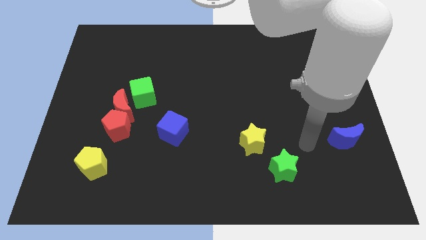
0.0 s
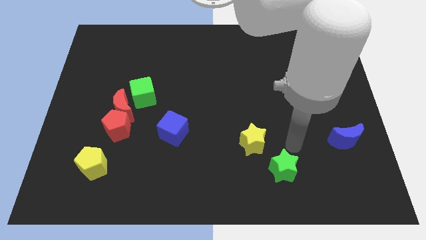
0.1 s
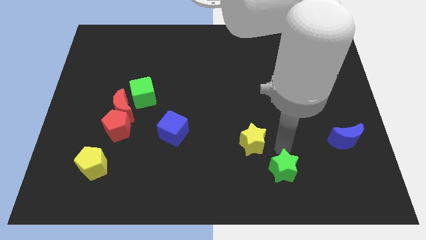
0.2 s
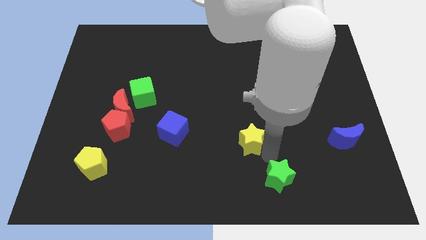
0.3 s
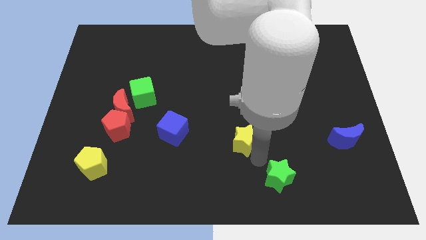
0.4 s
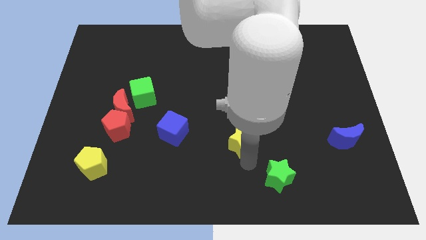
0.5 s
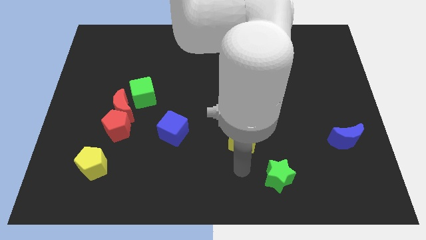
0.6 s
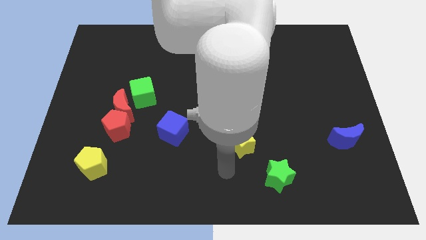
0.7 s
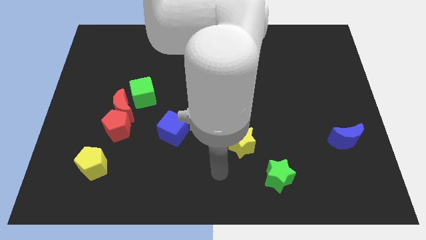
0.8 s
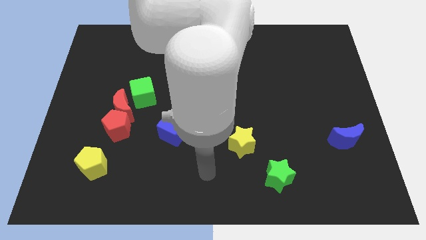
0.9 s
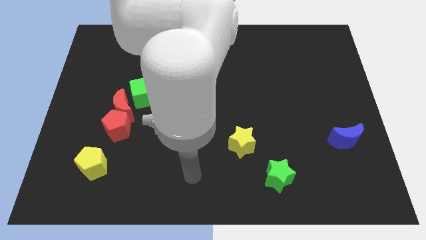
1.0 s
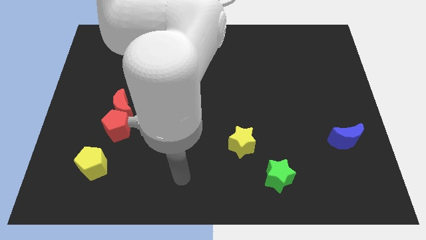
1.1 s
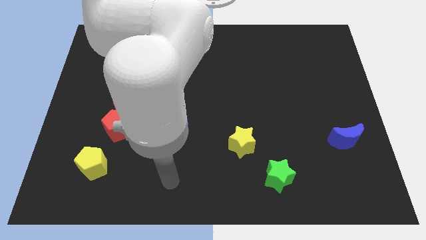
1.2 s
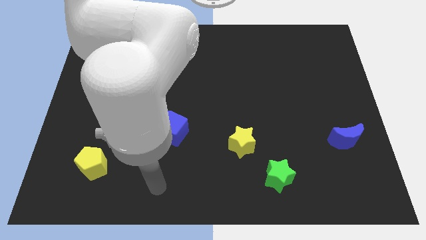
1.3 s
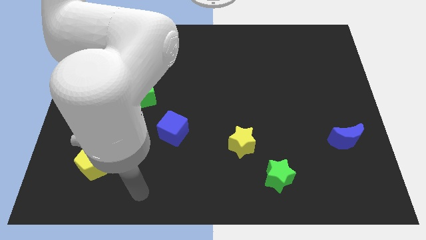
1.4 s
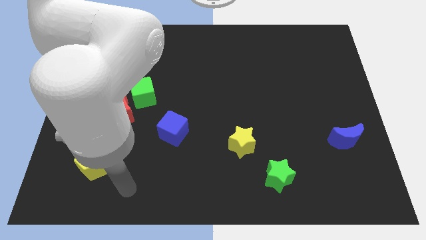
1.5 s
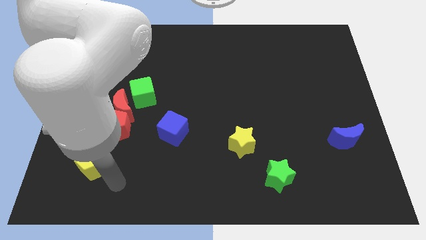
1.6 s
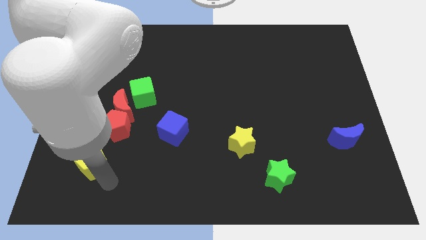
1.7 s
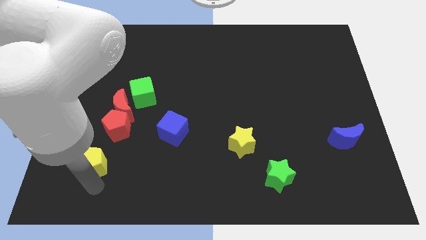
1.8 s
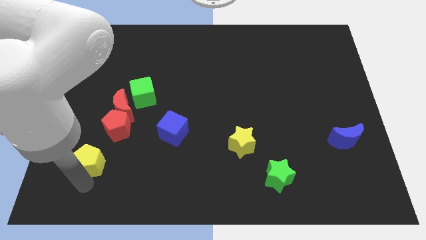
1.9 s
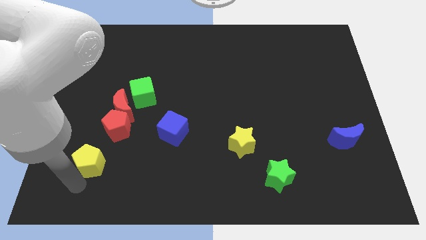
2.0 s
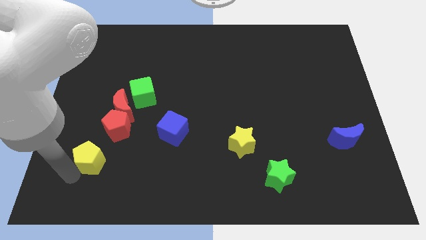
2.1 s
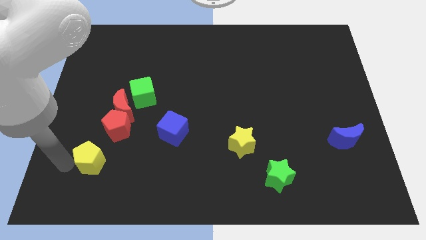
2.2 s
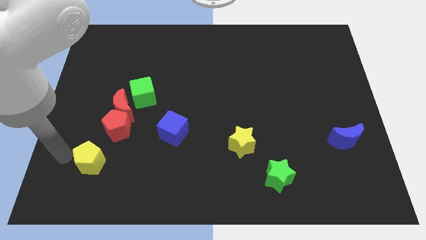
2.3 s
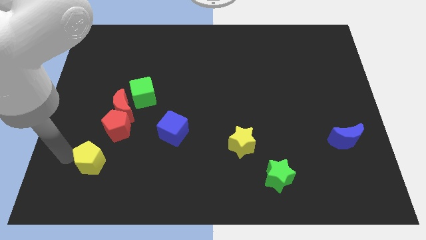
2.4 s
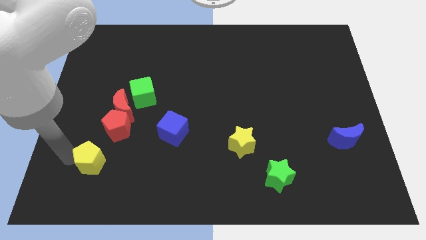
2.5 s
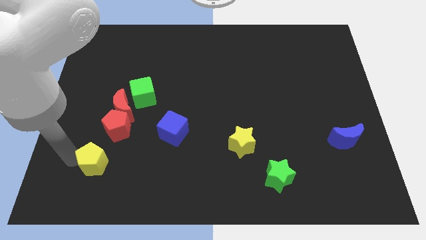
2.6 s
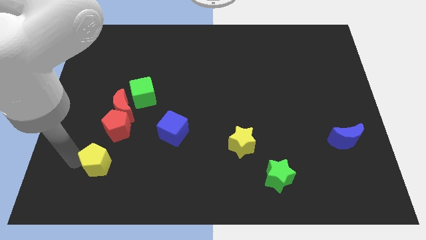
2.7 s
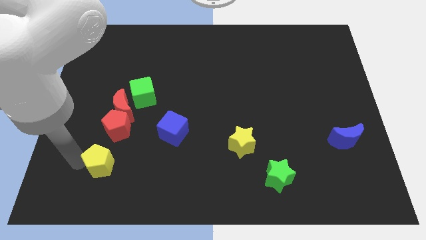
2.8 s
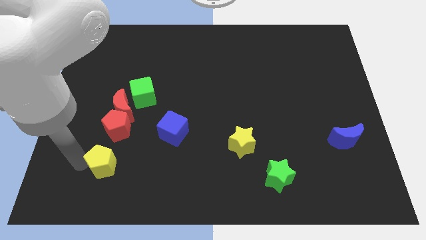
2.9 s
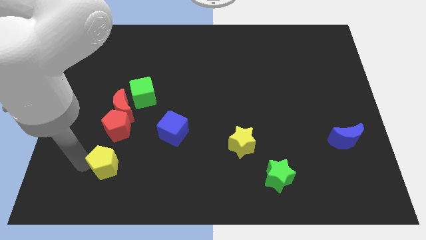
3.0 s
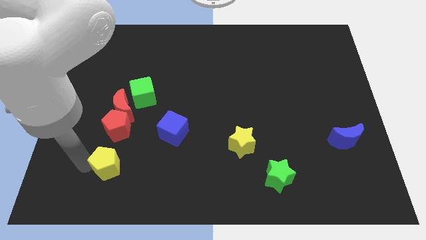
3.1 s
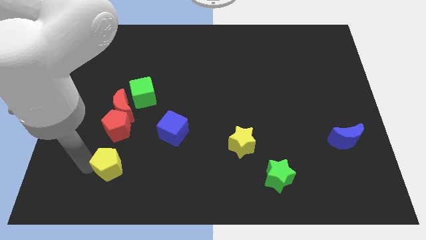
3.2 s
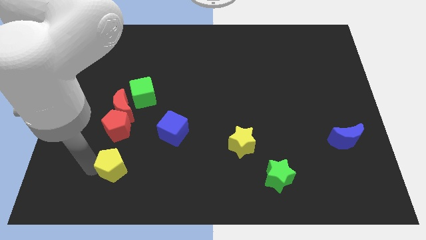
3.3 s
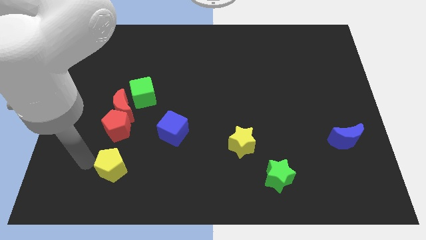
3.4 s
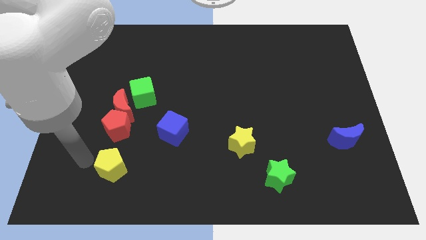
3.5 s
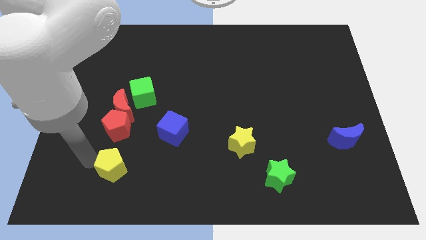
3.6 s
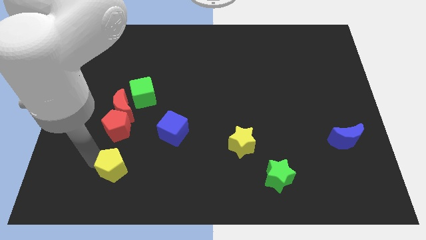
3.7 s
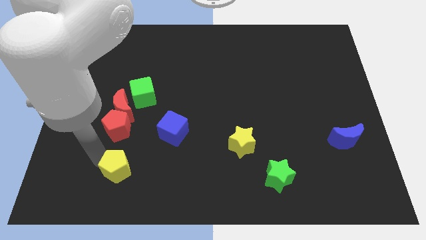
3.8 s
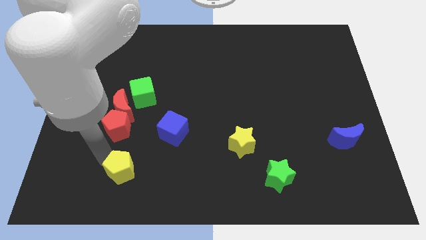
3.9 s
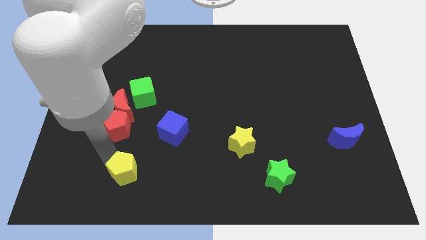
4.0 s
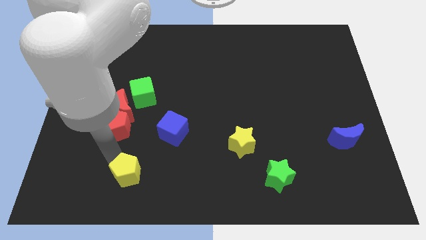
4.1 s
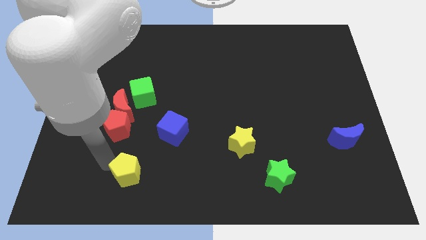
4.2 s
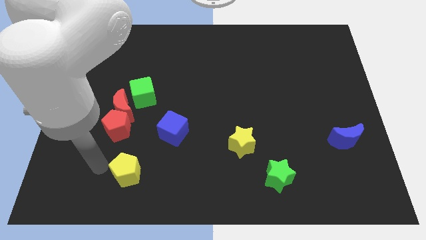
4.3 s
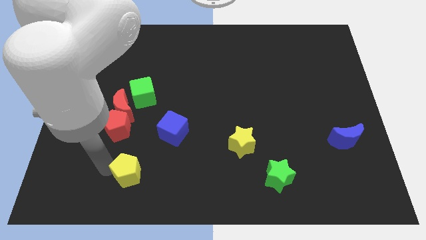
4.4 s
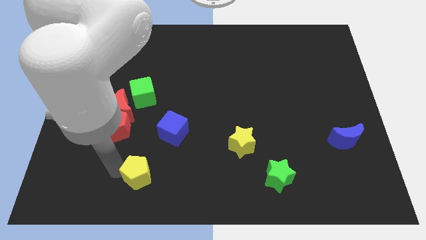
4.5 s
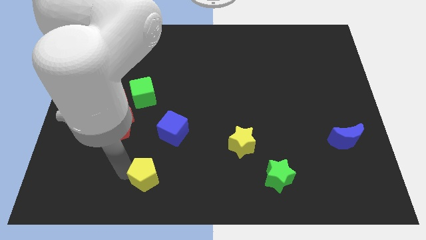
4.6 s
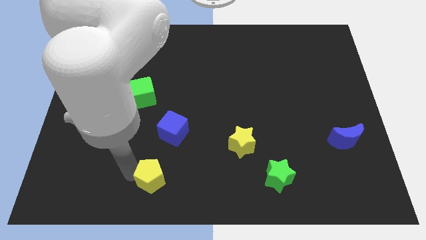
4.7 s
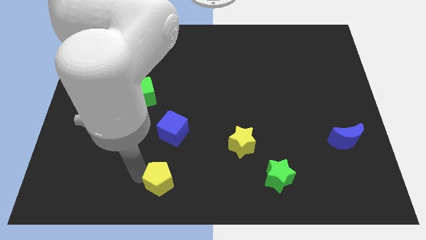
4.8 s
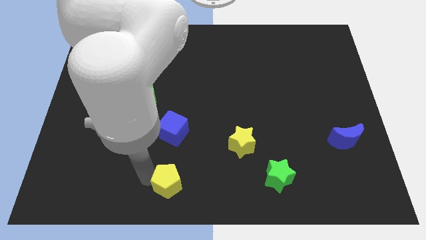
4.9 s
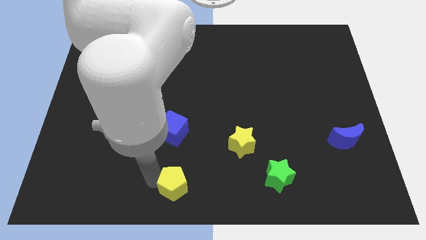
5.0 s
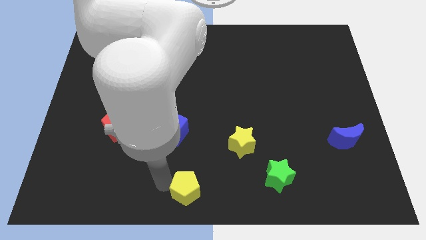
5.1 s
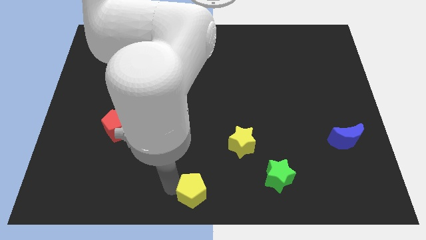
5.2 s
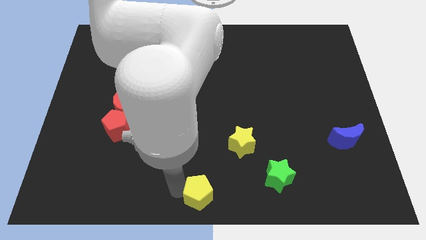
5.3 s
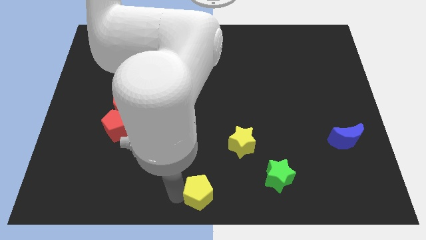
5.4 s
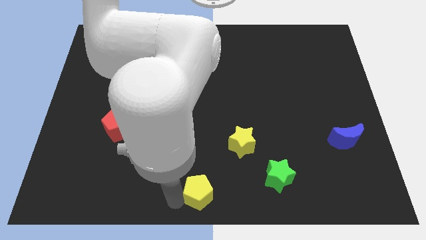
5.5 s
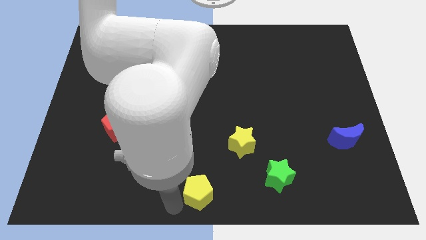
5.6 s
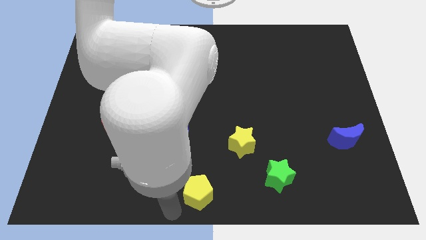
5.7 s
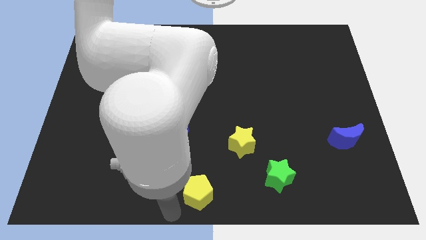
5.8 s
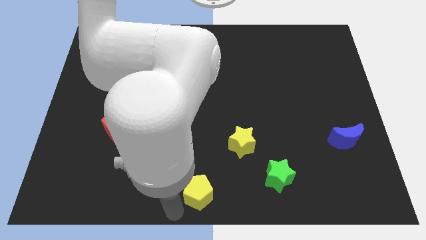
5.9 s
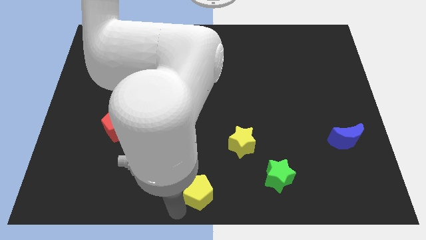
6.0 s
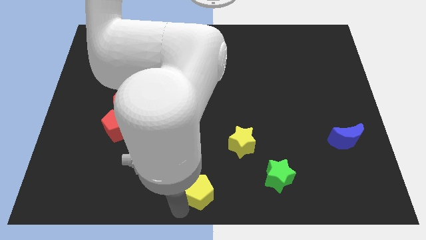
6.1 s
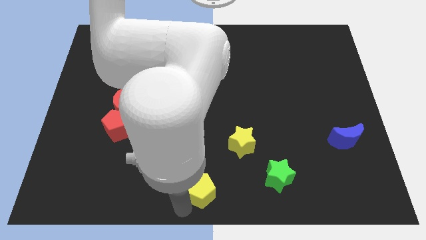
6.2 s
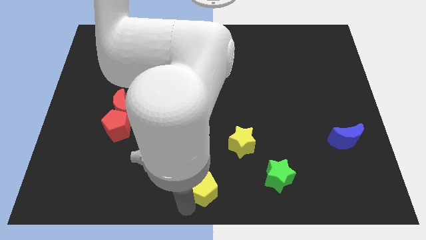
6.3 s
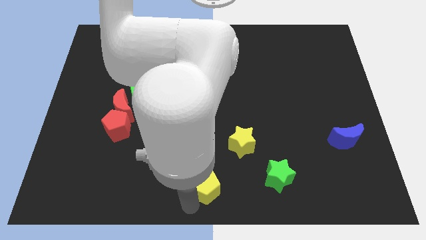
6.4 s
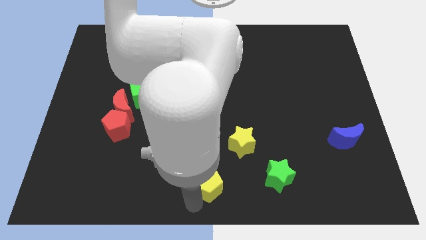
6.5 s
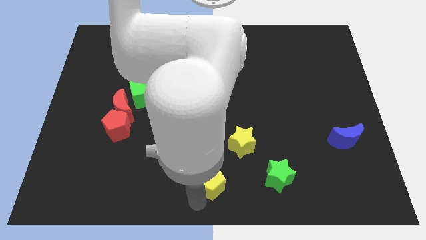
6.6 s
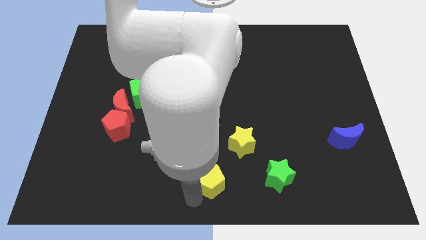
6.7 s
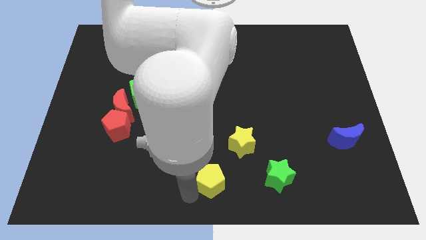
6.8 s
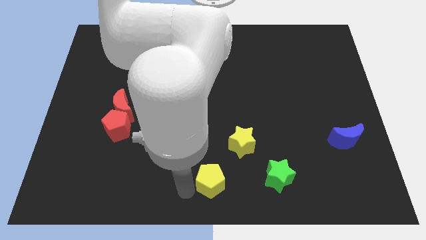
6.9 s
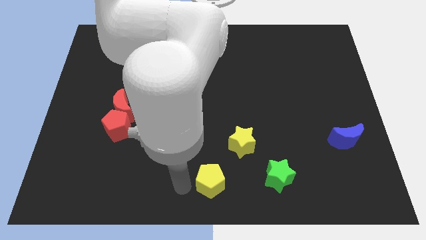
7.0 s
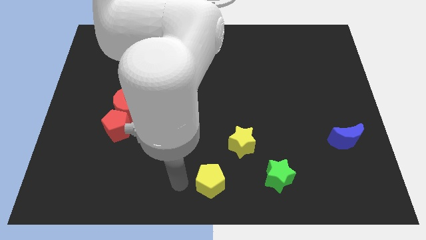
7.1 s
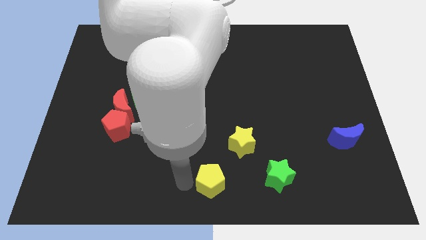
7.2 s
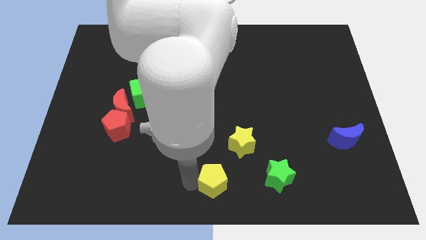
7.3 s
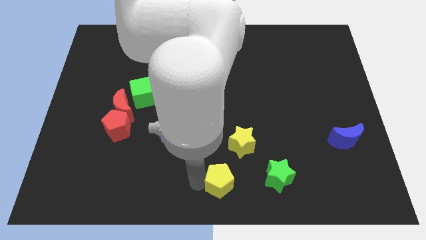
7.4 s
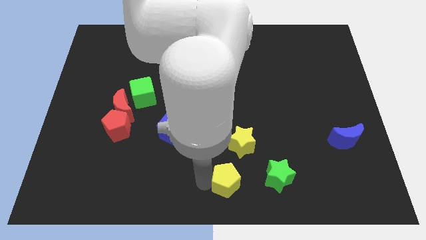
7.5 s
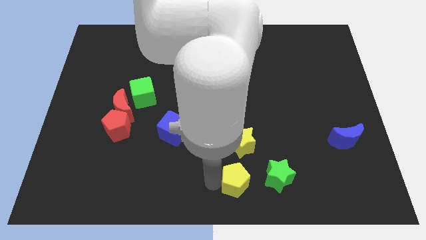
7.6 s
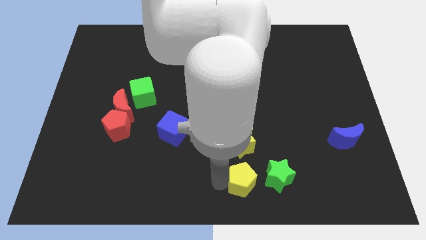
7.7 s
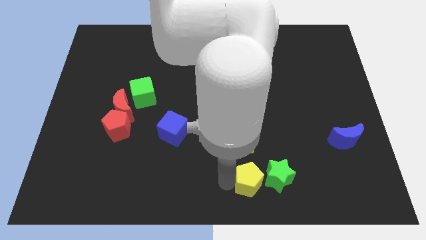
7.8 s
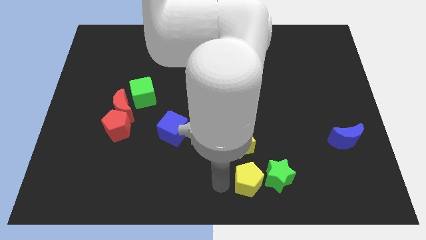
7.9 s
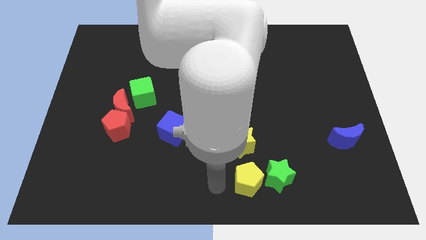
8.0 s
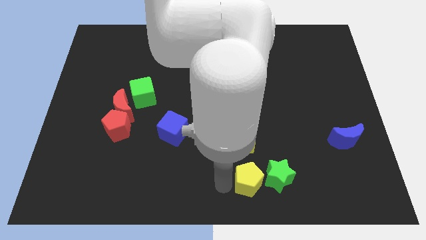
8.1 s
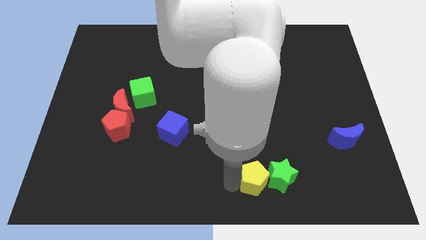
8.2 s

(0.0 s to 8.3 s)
slide the yellow pentagon to the green star
